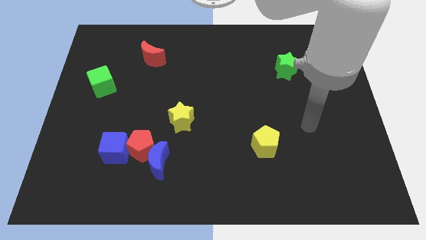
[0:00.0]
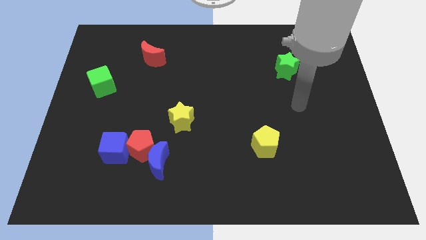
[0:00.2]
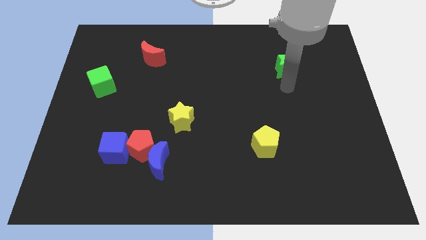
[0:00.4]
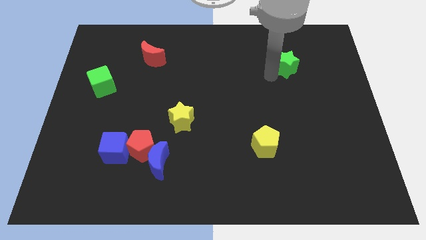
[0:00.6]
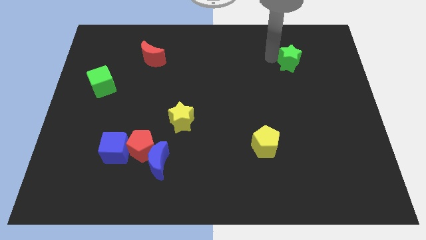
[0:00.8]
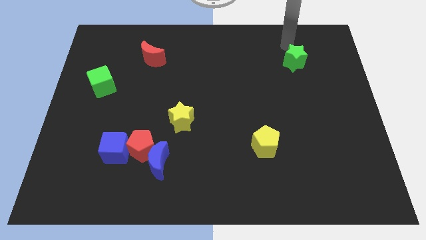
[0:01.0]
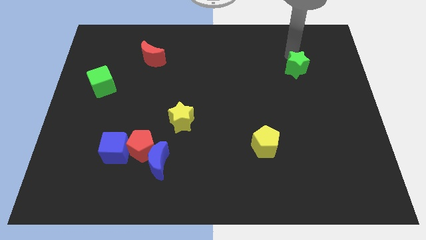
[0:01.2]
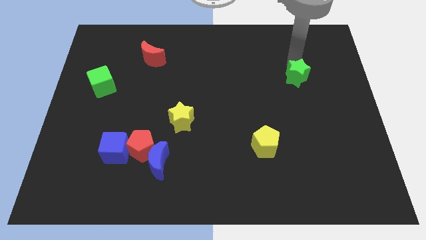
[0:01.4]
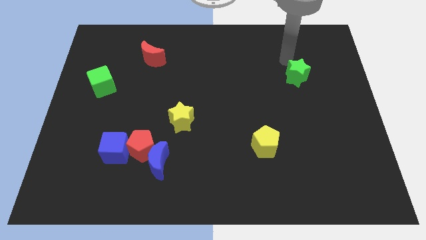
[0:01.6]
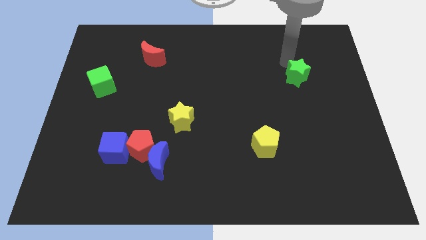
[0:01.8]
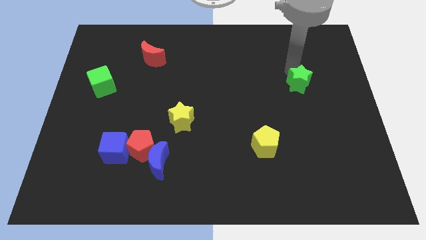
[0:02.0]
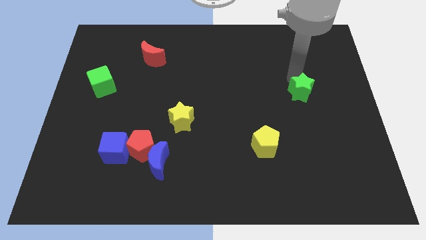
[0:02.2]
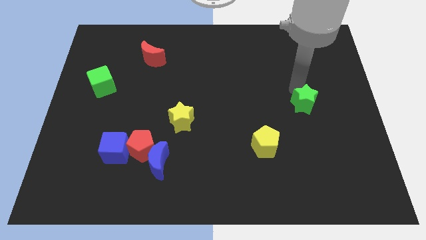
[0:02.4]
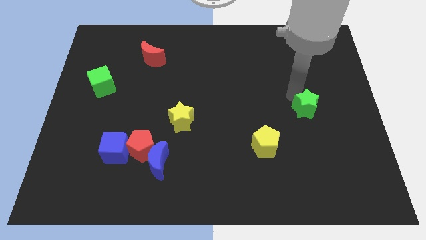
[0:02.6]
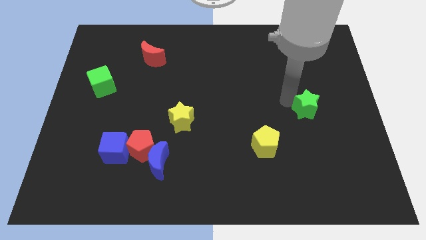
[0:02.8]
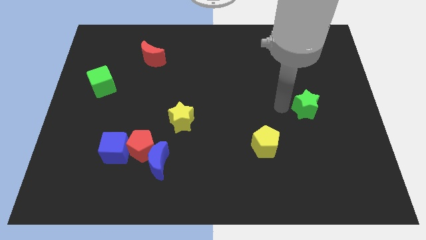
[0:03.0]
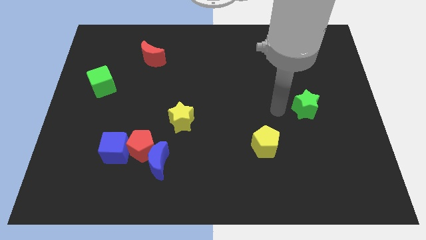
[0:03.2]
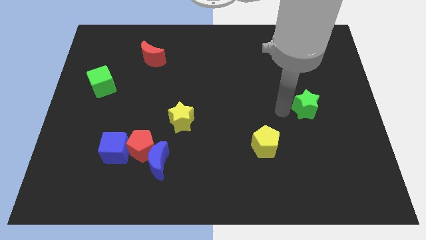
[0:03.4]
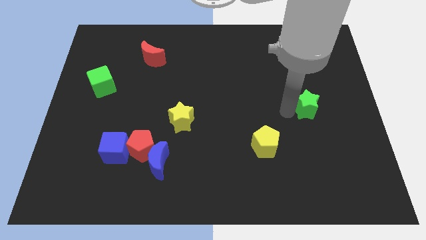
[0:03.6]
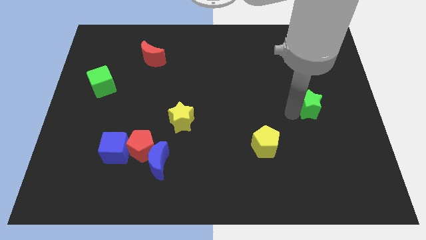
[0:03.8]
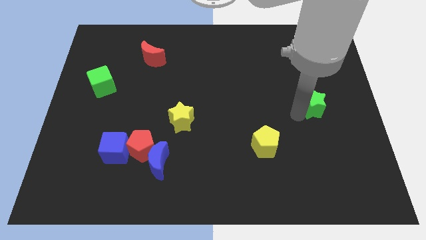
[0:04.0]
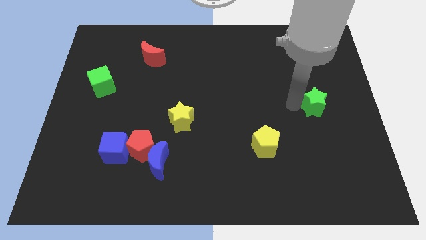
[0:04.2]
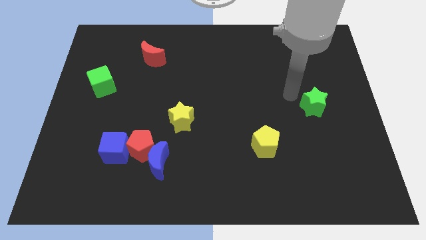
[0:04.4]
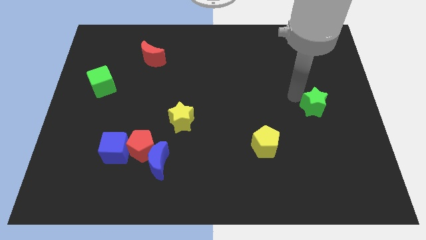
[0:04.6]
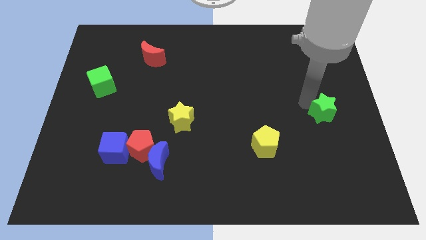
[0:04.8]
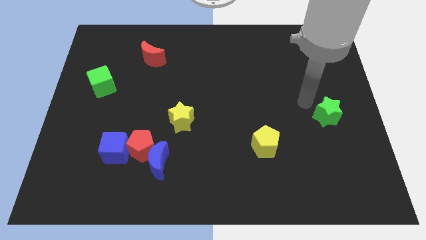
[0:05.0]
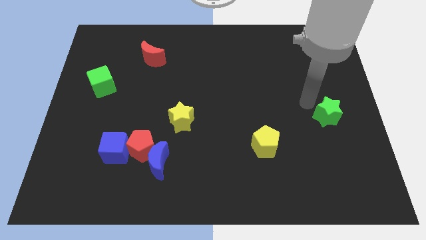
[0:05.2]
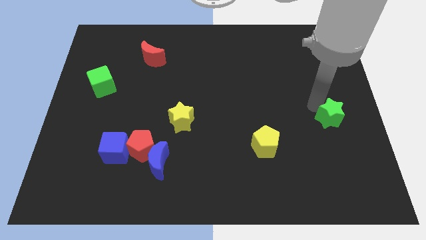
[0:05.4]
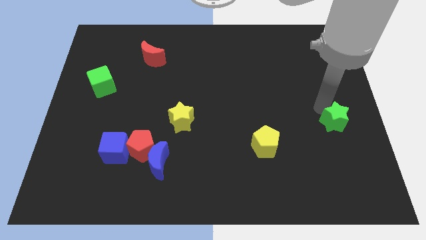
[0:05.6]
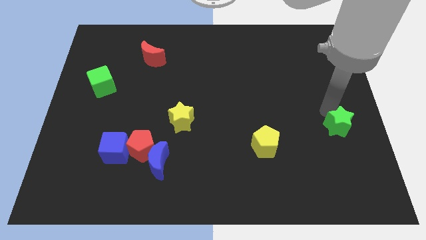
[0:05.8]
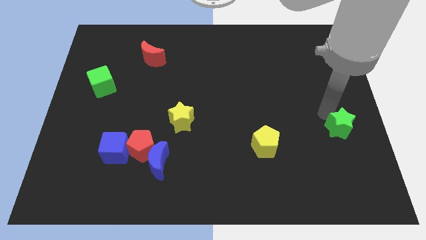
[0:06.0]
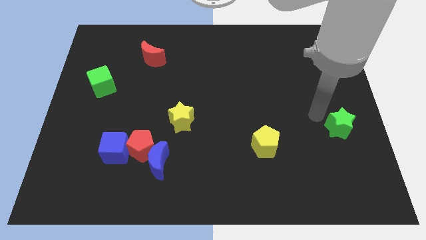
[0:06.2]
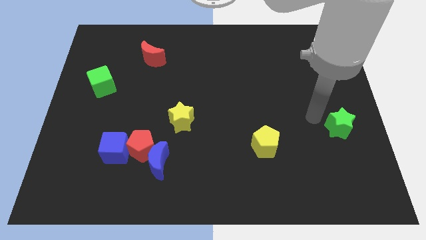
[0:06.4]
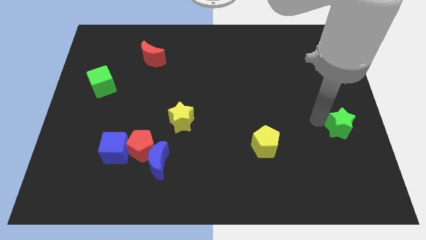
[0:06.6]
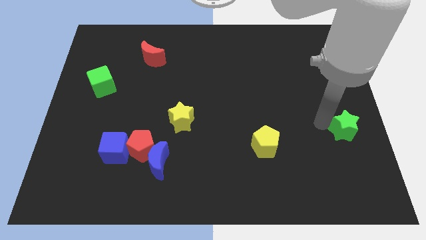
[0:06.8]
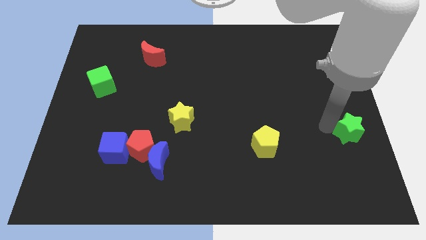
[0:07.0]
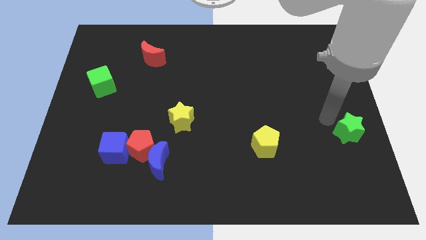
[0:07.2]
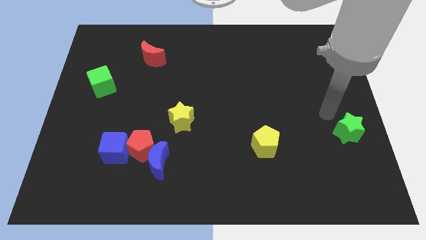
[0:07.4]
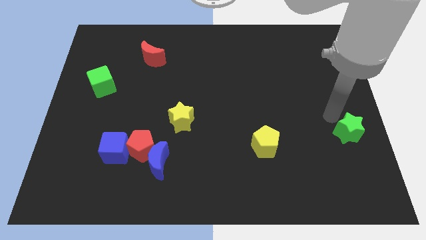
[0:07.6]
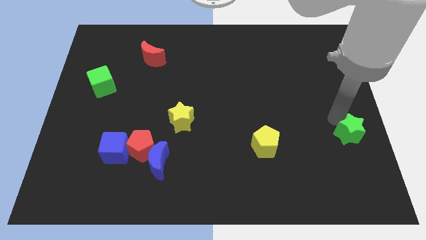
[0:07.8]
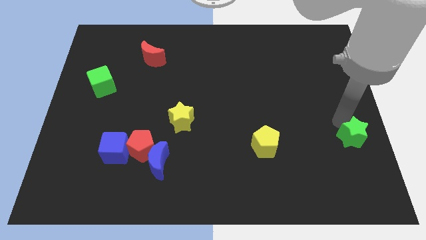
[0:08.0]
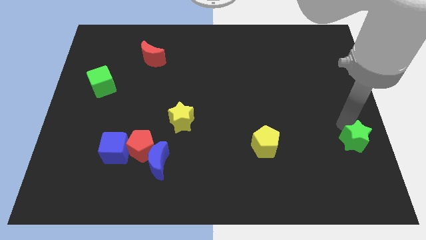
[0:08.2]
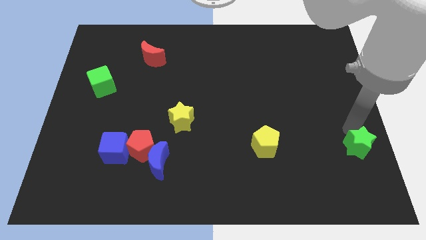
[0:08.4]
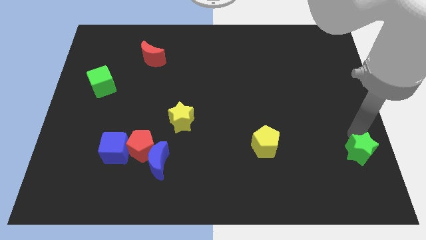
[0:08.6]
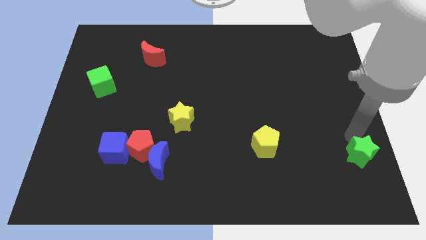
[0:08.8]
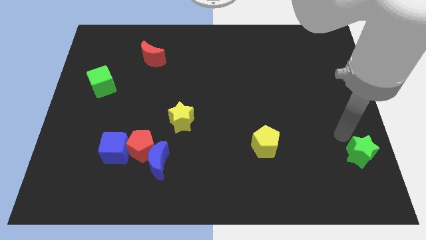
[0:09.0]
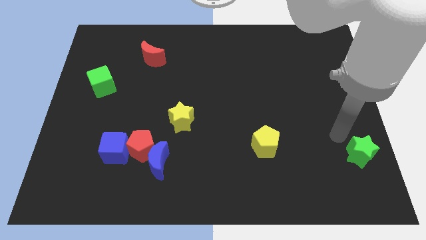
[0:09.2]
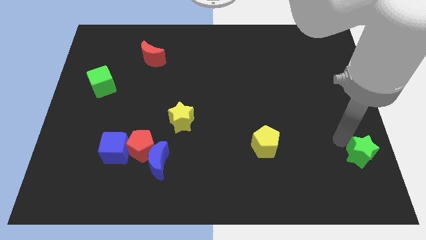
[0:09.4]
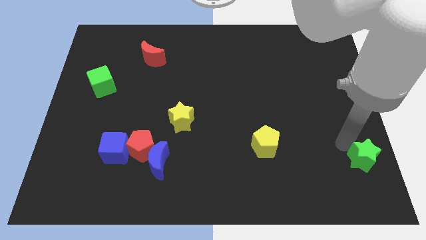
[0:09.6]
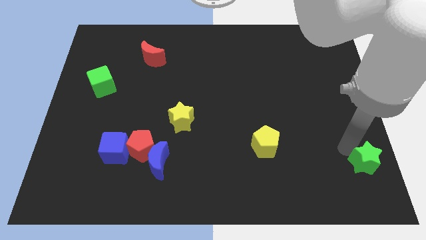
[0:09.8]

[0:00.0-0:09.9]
move the green star to the bottom right of the board

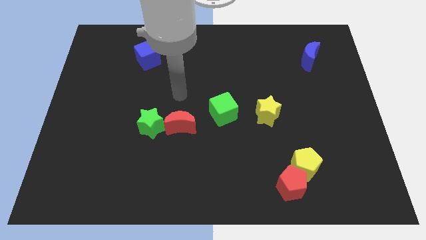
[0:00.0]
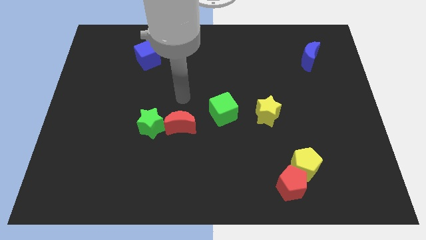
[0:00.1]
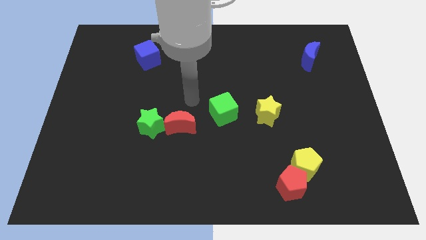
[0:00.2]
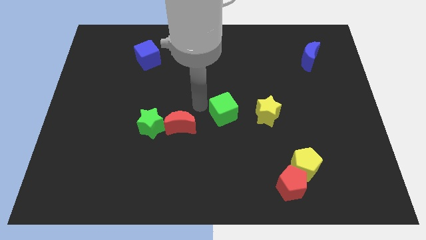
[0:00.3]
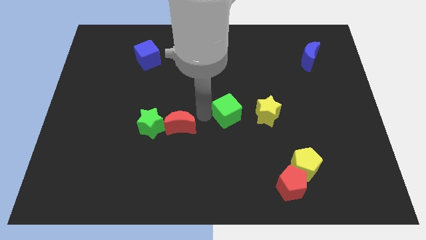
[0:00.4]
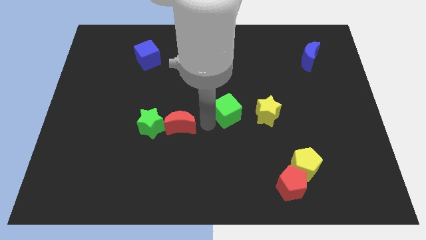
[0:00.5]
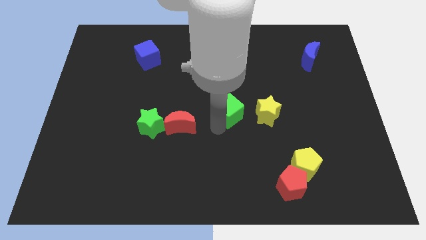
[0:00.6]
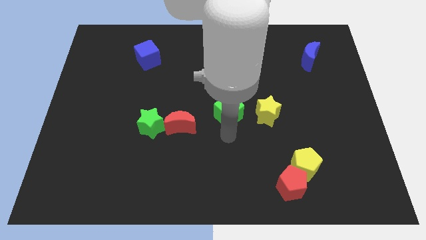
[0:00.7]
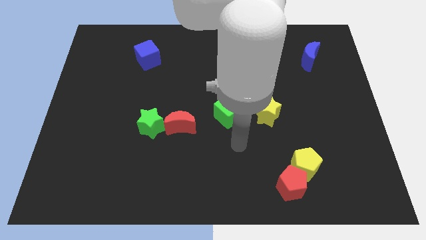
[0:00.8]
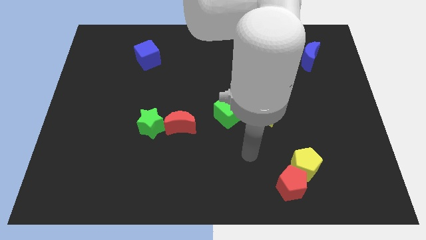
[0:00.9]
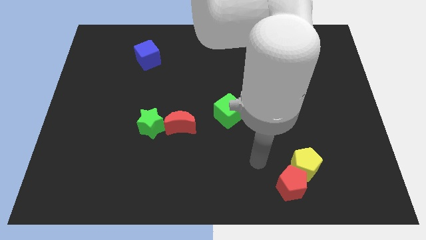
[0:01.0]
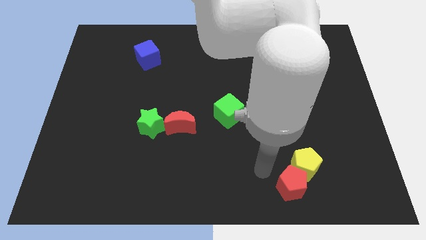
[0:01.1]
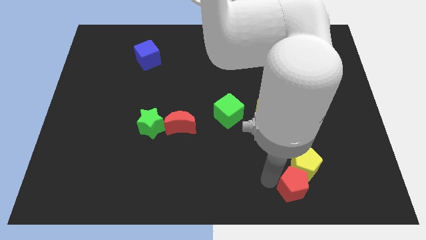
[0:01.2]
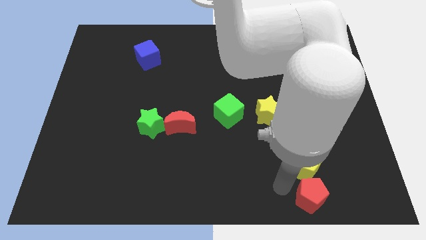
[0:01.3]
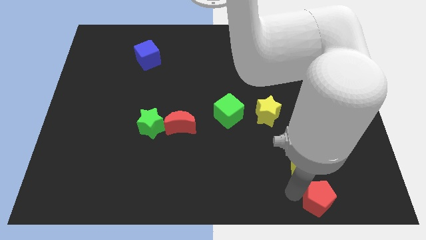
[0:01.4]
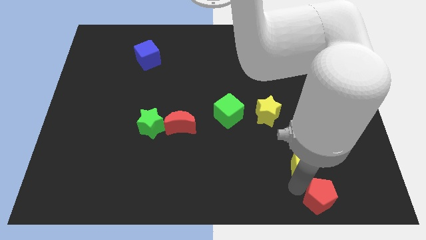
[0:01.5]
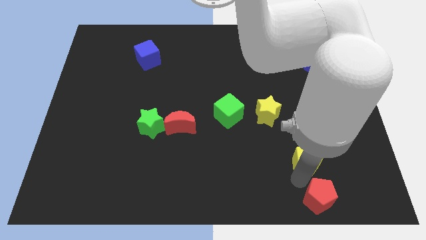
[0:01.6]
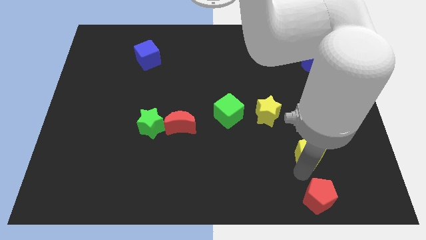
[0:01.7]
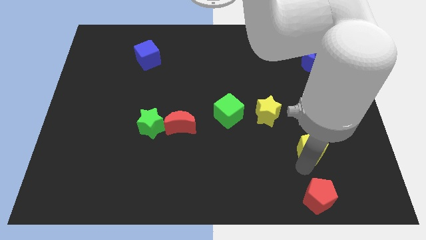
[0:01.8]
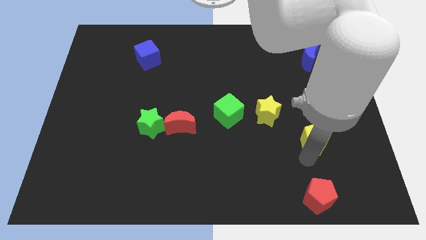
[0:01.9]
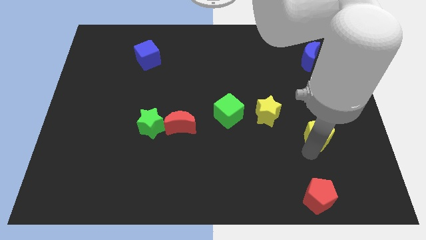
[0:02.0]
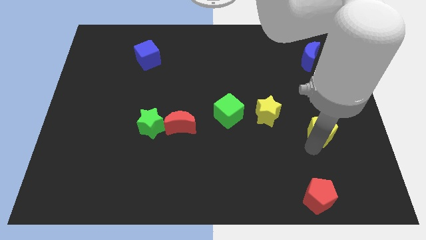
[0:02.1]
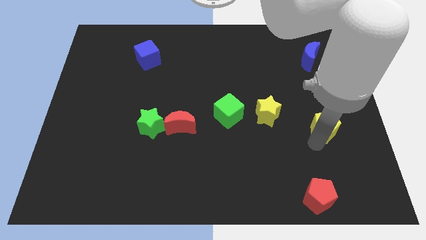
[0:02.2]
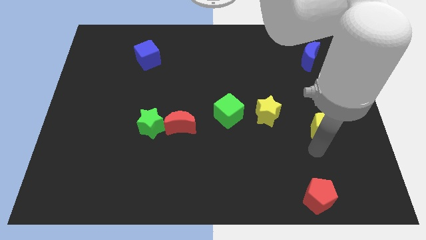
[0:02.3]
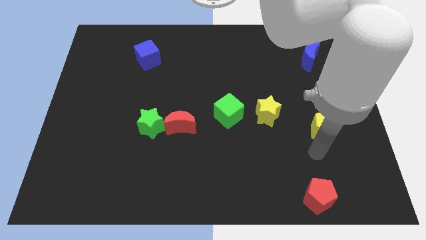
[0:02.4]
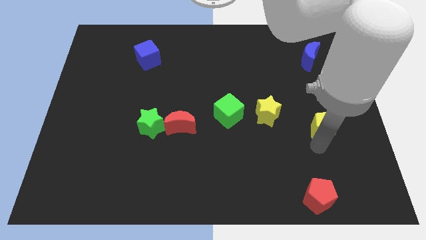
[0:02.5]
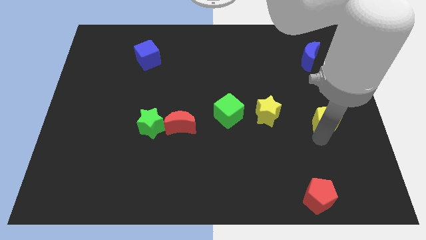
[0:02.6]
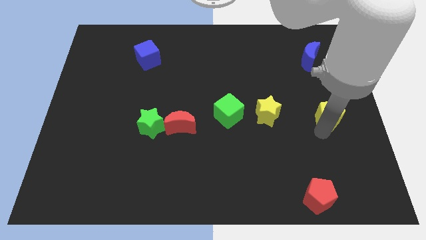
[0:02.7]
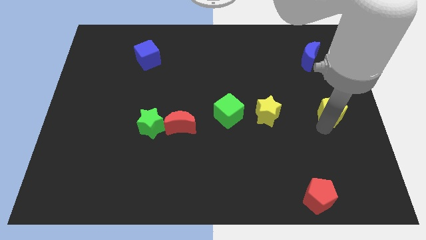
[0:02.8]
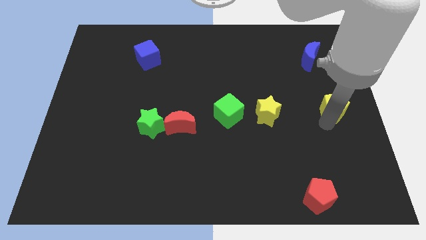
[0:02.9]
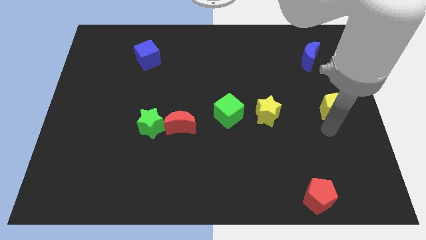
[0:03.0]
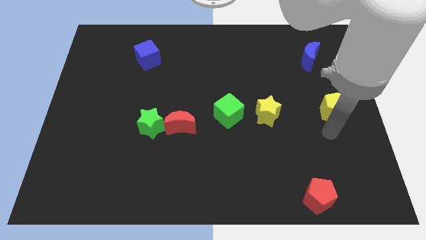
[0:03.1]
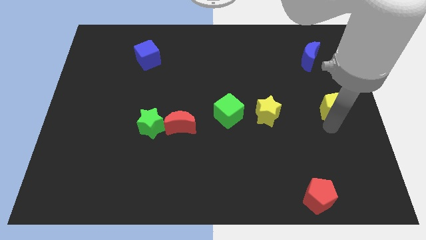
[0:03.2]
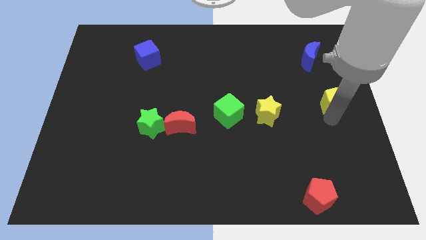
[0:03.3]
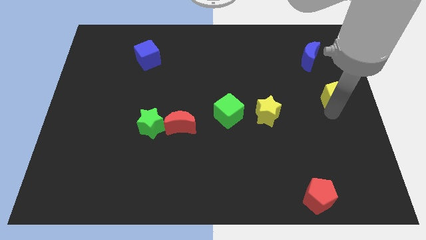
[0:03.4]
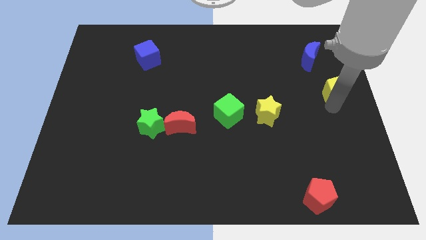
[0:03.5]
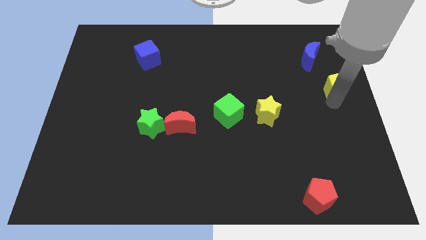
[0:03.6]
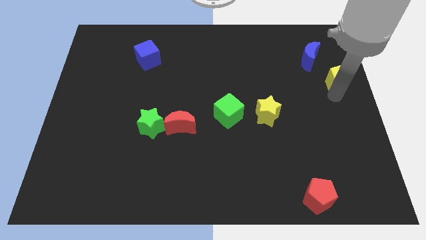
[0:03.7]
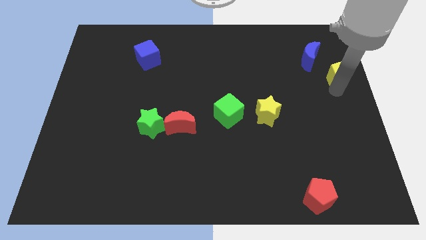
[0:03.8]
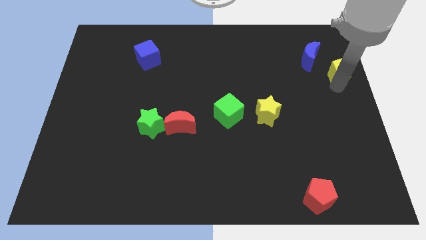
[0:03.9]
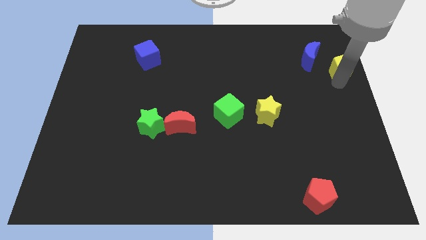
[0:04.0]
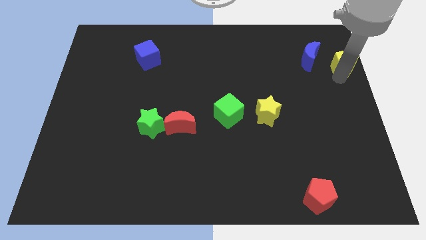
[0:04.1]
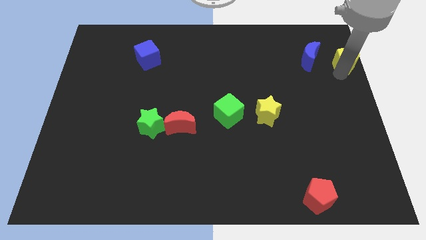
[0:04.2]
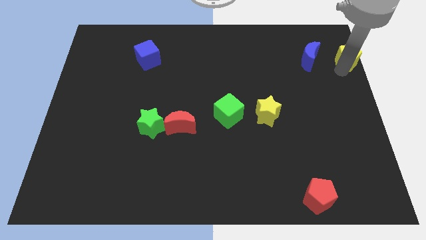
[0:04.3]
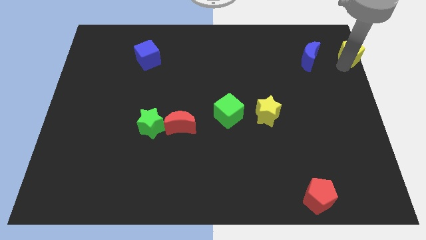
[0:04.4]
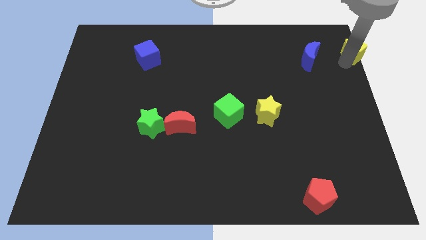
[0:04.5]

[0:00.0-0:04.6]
move the yellow pentagon to the upper right corner
